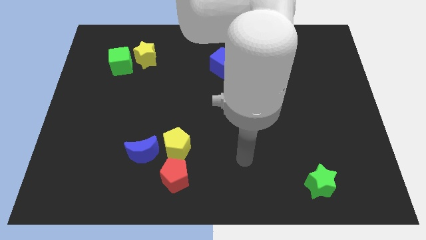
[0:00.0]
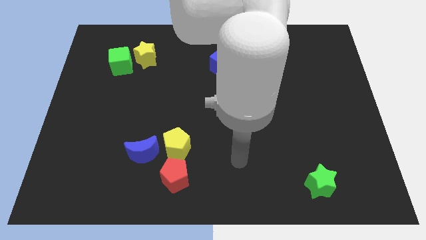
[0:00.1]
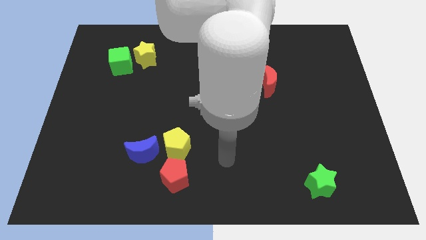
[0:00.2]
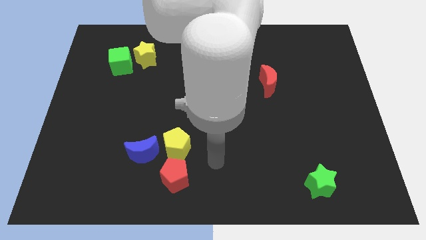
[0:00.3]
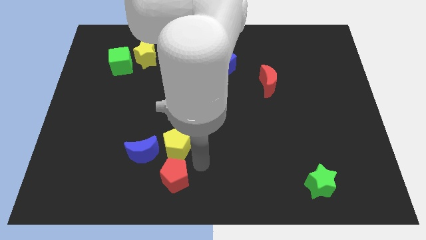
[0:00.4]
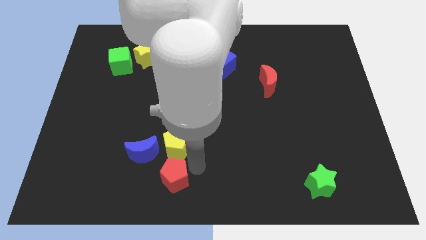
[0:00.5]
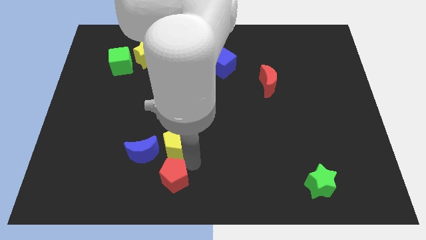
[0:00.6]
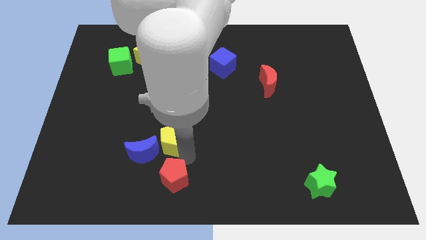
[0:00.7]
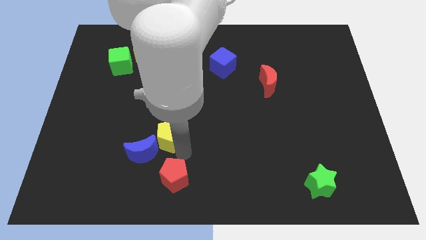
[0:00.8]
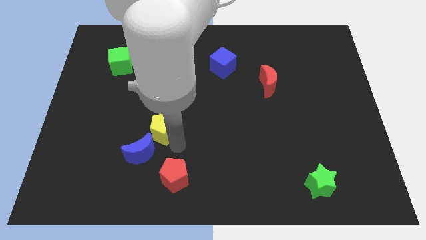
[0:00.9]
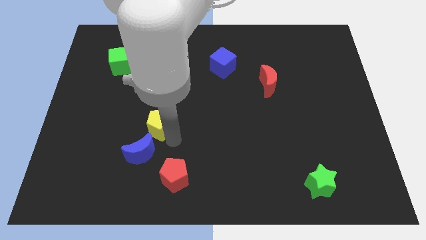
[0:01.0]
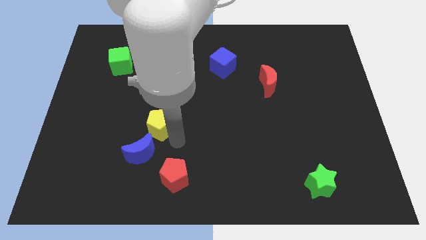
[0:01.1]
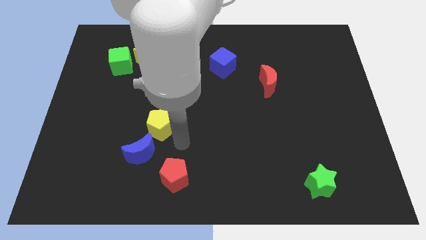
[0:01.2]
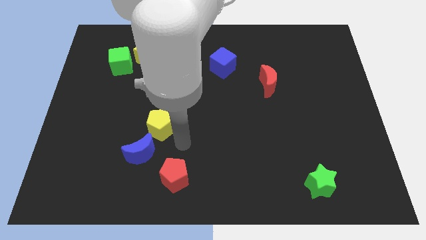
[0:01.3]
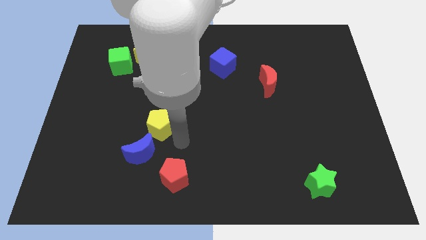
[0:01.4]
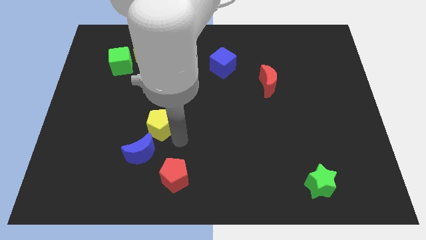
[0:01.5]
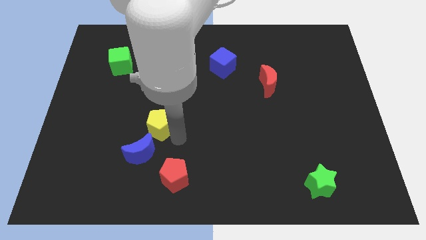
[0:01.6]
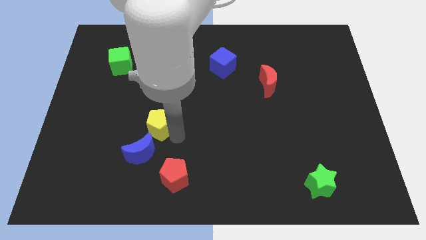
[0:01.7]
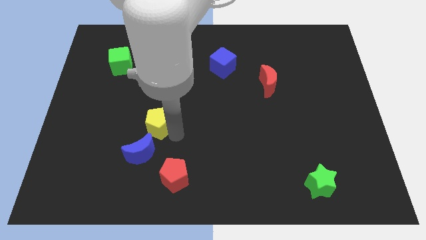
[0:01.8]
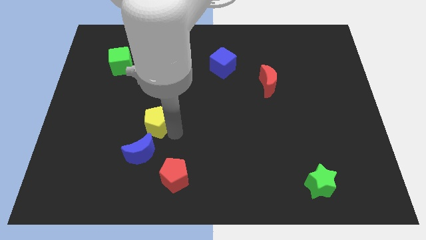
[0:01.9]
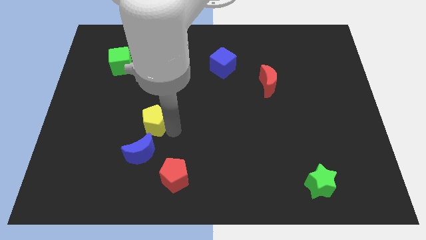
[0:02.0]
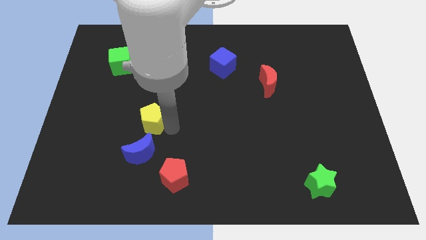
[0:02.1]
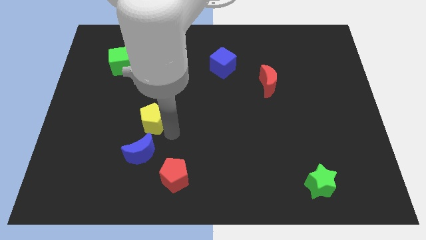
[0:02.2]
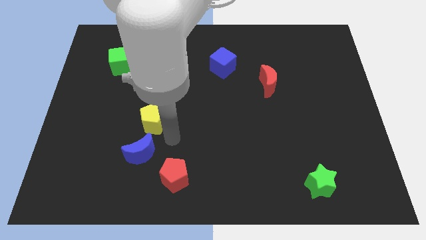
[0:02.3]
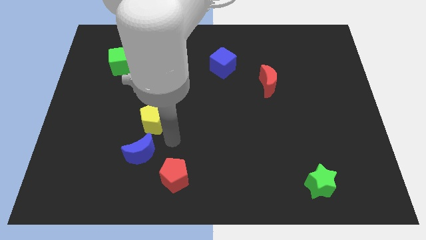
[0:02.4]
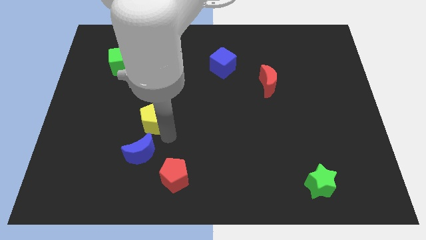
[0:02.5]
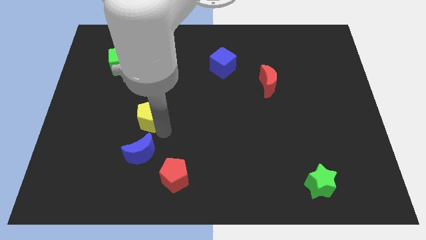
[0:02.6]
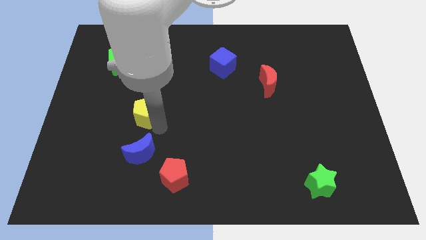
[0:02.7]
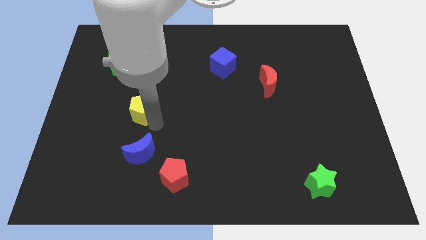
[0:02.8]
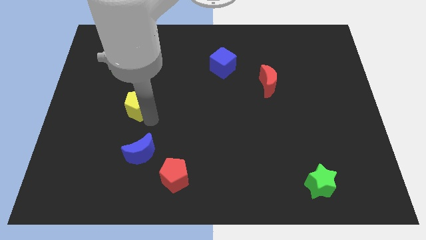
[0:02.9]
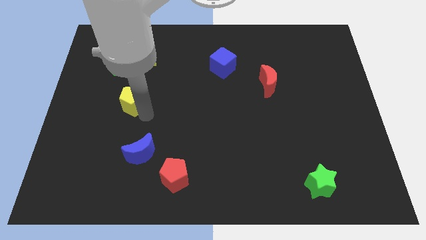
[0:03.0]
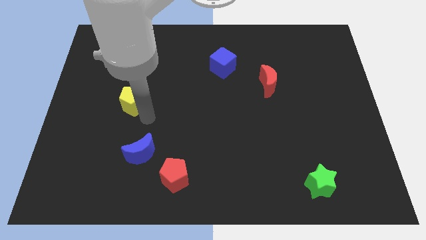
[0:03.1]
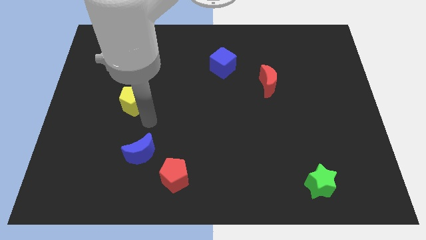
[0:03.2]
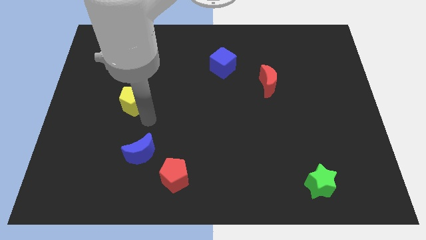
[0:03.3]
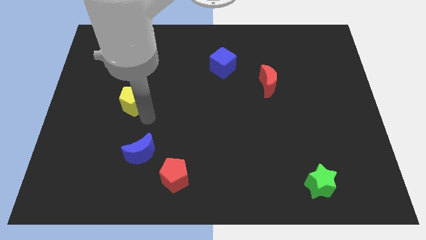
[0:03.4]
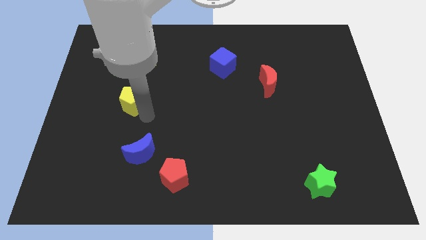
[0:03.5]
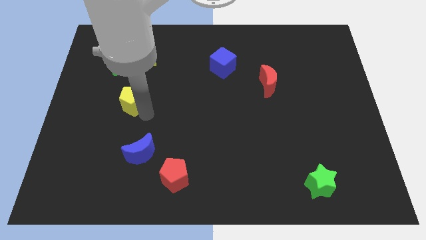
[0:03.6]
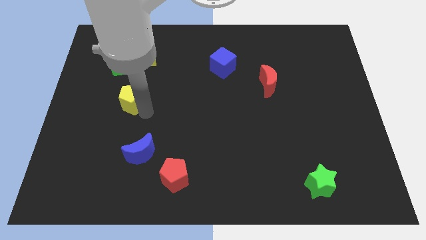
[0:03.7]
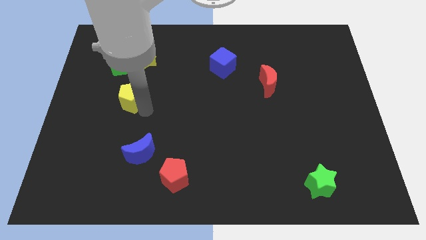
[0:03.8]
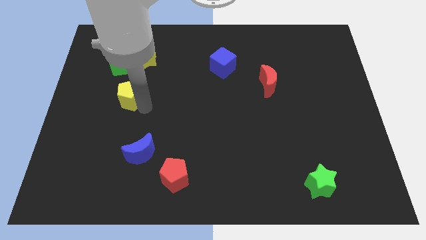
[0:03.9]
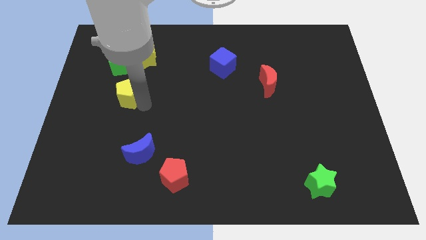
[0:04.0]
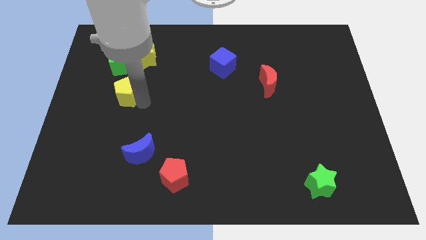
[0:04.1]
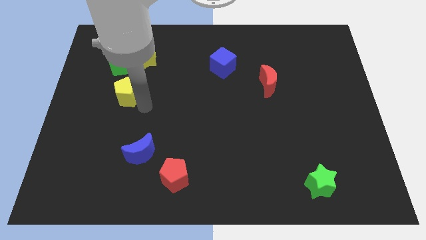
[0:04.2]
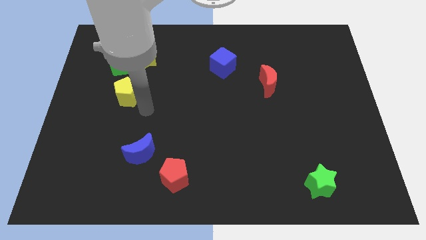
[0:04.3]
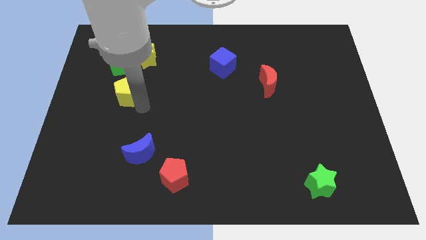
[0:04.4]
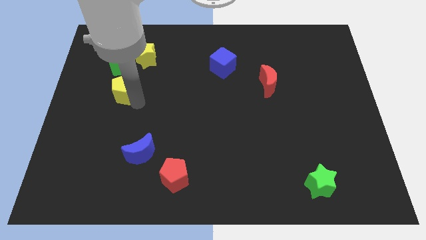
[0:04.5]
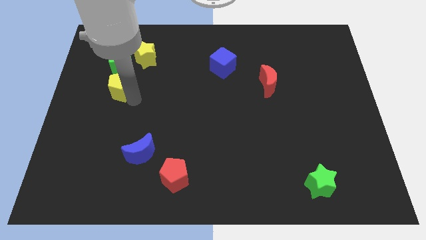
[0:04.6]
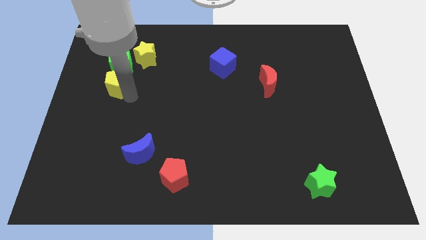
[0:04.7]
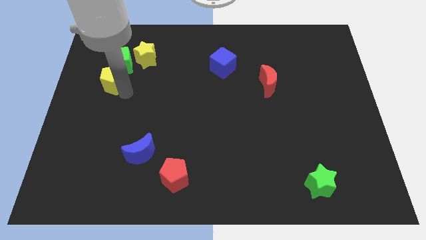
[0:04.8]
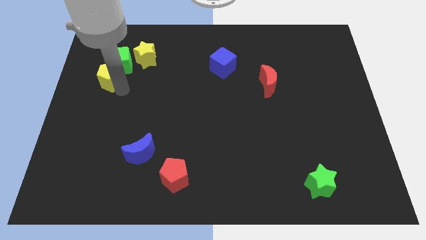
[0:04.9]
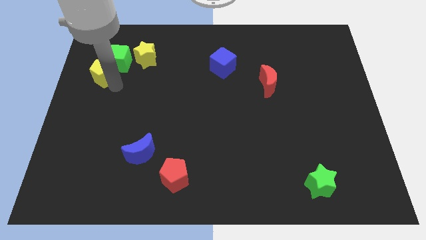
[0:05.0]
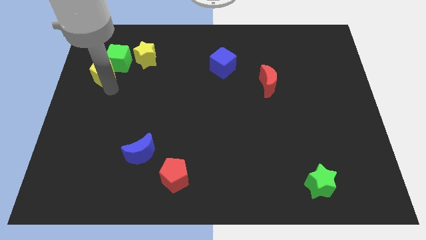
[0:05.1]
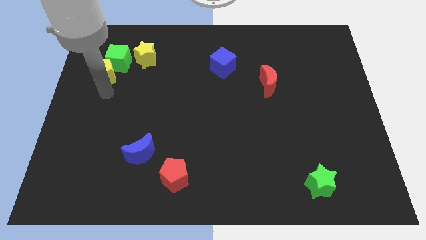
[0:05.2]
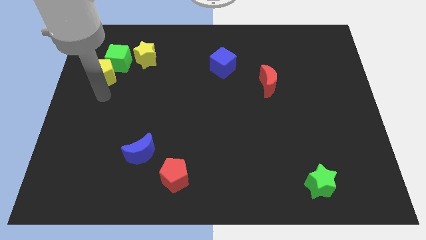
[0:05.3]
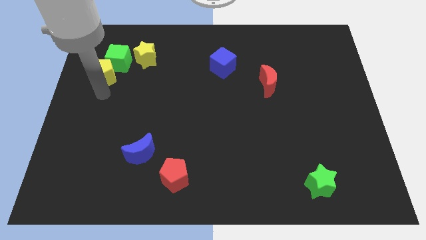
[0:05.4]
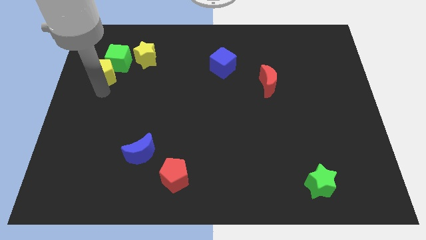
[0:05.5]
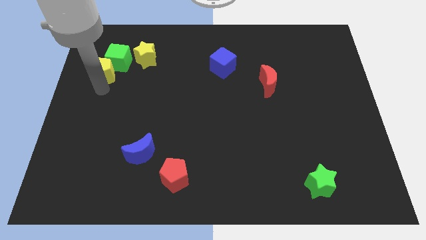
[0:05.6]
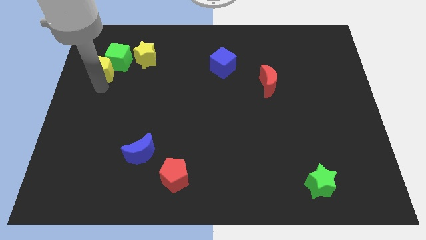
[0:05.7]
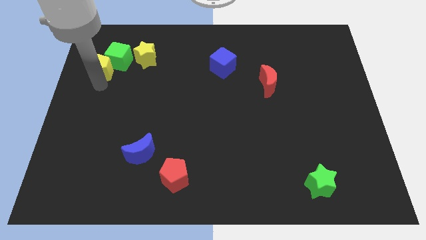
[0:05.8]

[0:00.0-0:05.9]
push the yellow pentagon just left of the yellow star

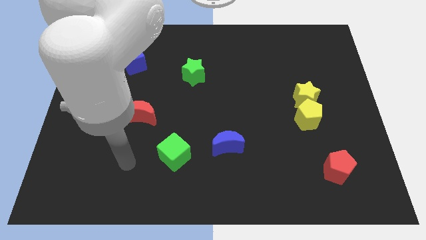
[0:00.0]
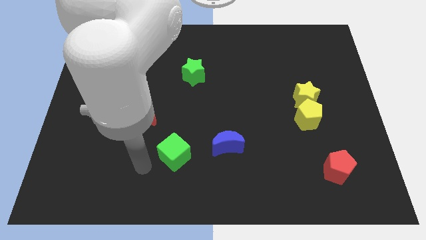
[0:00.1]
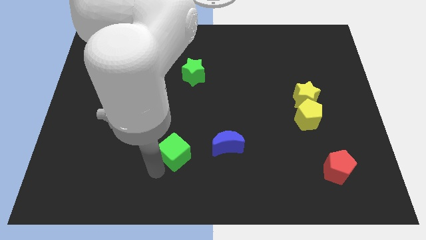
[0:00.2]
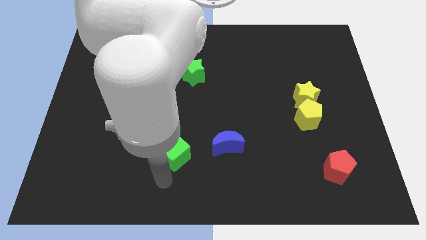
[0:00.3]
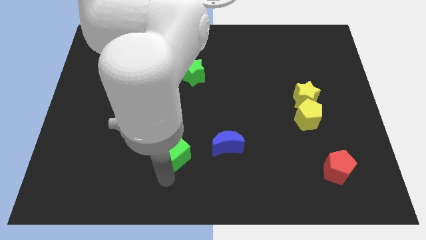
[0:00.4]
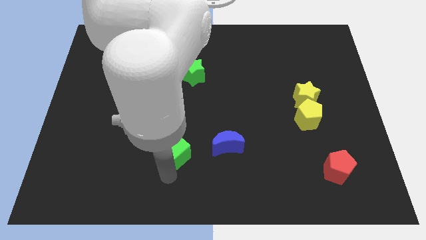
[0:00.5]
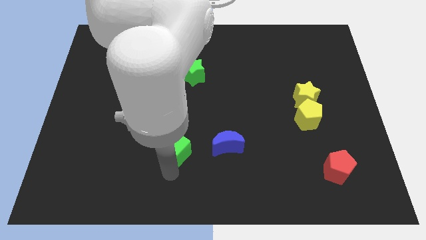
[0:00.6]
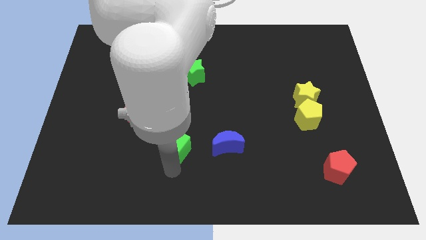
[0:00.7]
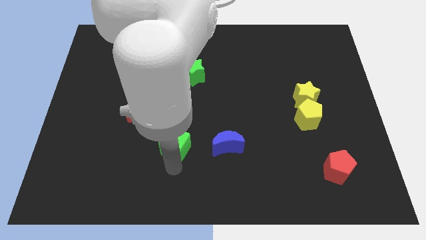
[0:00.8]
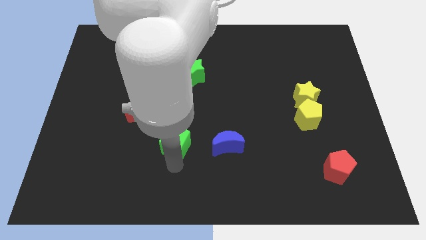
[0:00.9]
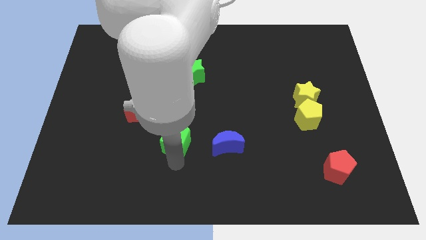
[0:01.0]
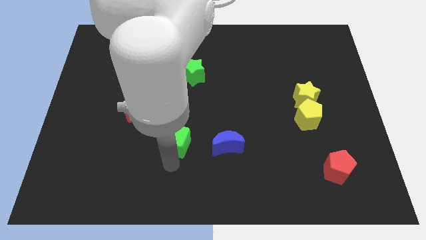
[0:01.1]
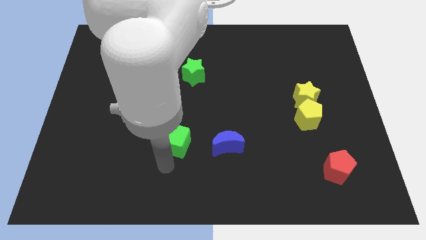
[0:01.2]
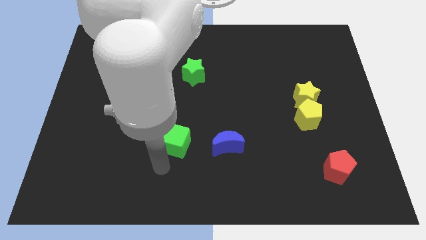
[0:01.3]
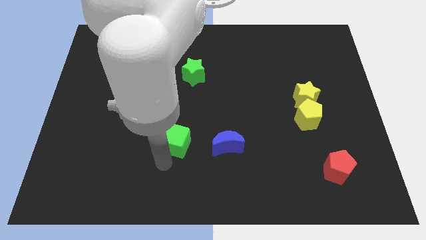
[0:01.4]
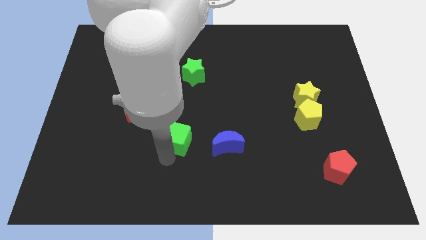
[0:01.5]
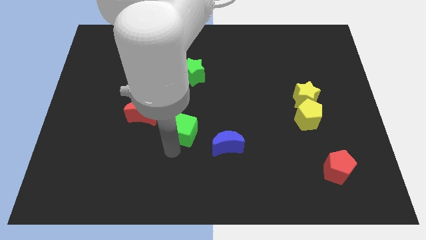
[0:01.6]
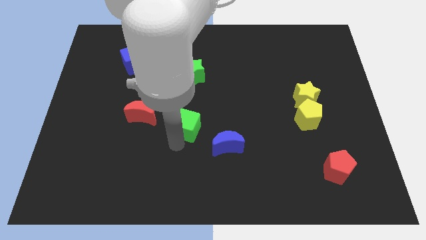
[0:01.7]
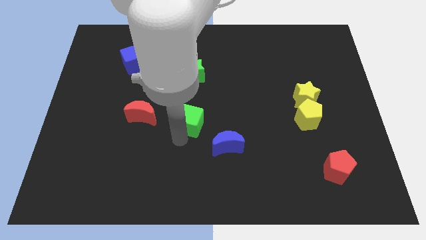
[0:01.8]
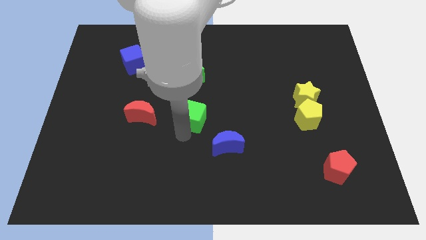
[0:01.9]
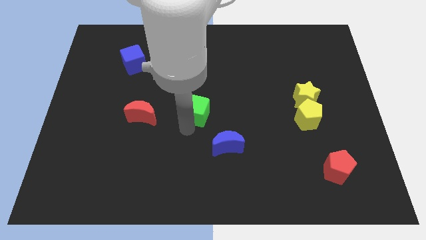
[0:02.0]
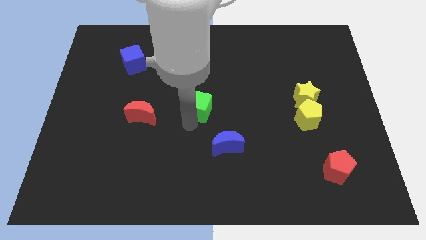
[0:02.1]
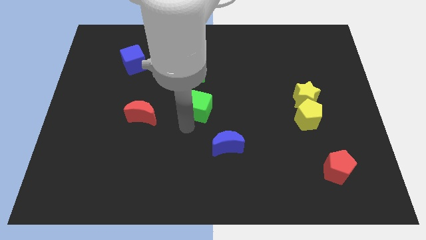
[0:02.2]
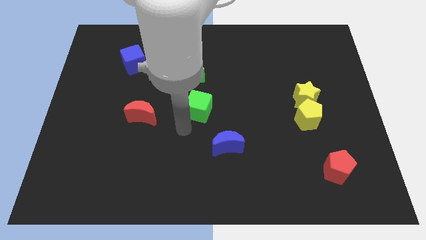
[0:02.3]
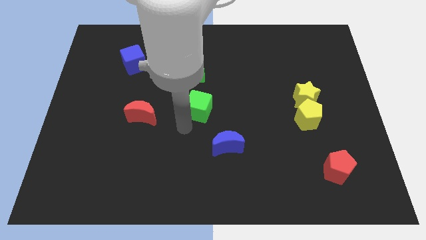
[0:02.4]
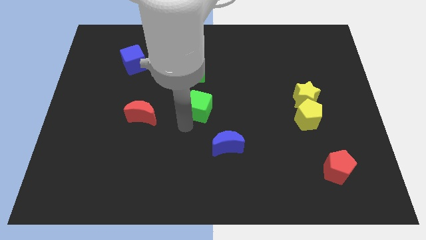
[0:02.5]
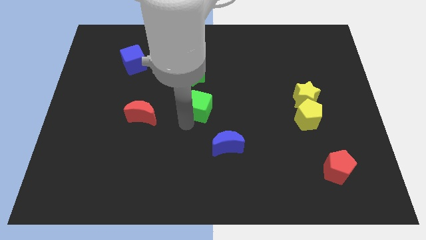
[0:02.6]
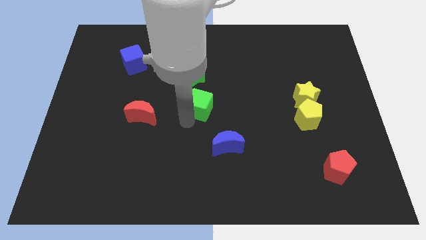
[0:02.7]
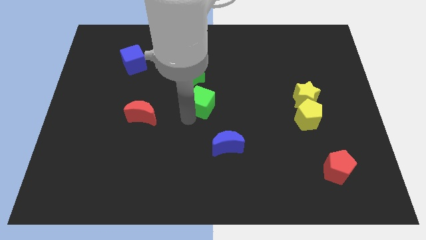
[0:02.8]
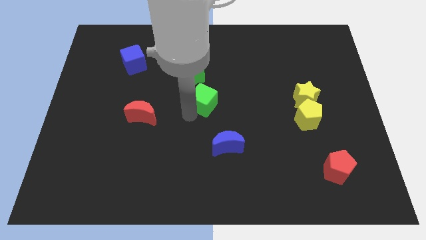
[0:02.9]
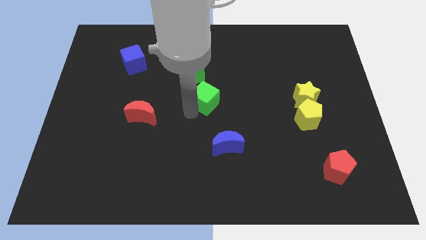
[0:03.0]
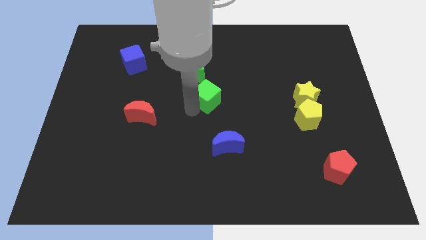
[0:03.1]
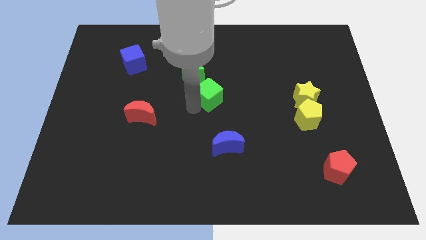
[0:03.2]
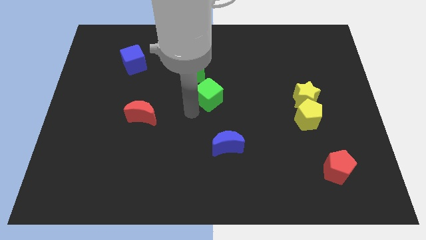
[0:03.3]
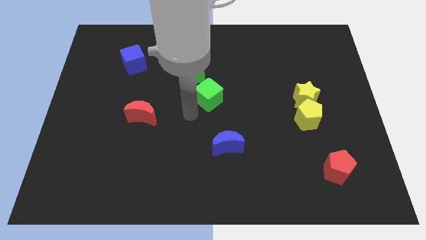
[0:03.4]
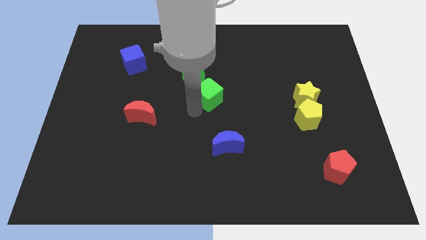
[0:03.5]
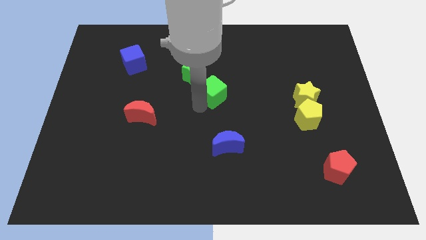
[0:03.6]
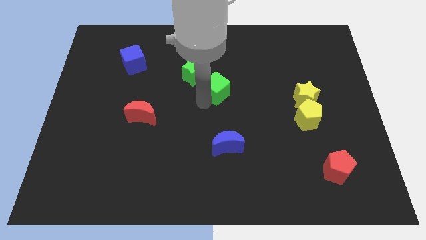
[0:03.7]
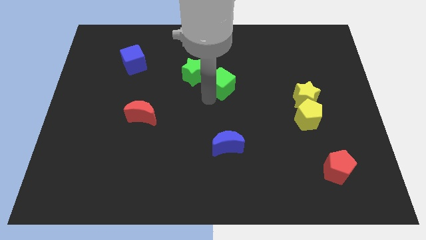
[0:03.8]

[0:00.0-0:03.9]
put the green cube right of the green star
